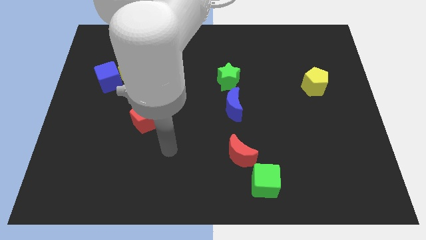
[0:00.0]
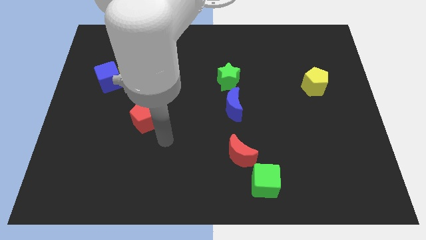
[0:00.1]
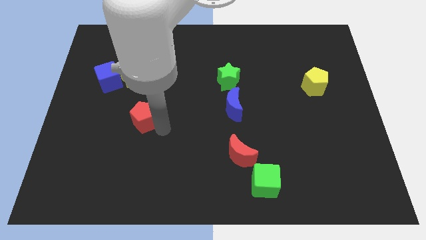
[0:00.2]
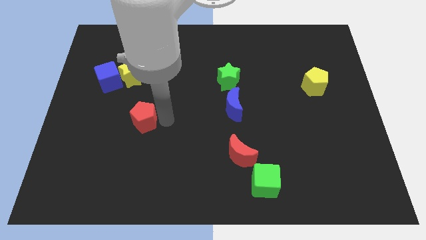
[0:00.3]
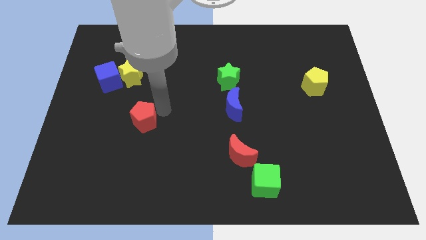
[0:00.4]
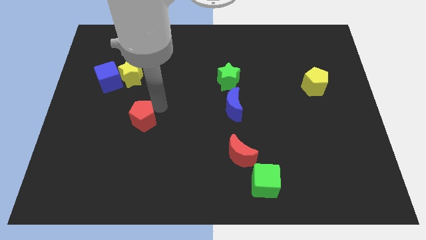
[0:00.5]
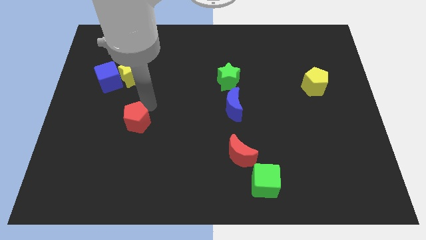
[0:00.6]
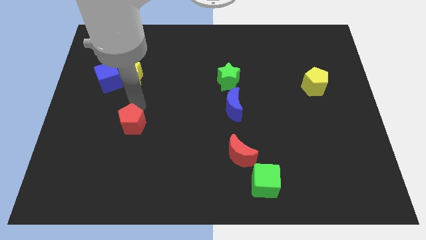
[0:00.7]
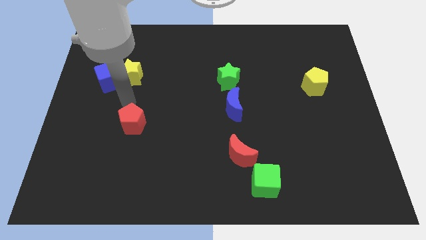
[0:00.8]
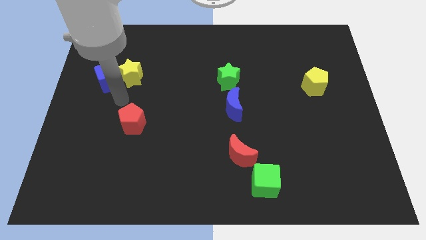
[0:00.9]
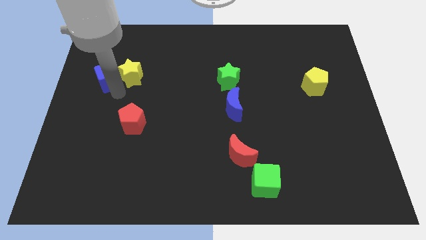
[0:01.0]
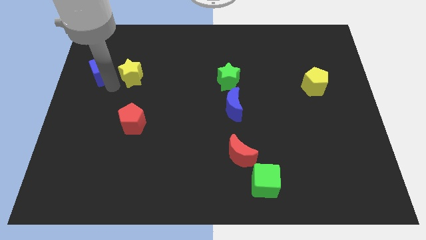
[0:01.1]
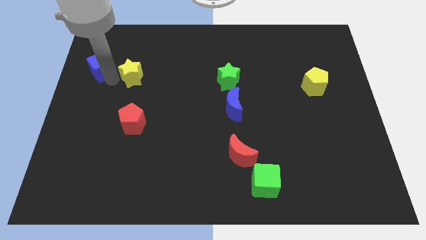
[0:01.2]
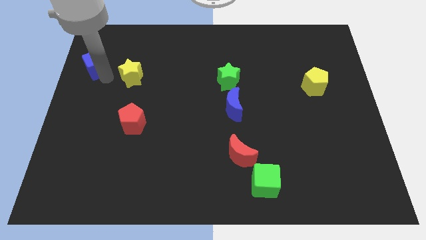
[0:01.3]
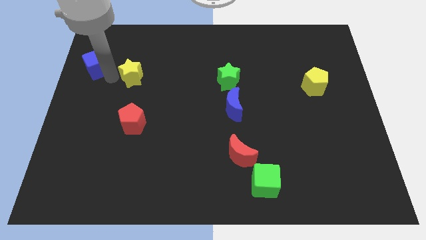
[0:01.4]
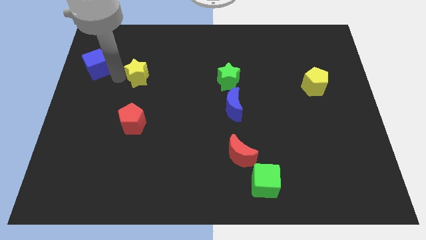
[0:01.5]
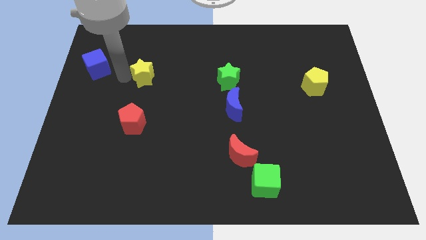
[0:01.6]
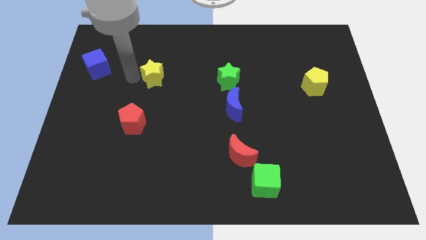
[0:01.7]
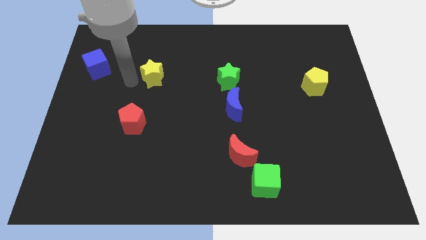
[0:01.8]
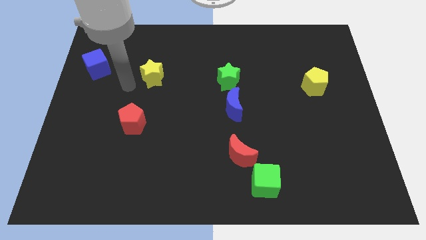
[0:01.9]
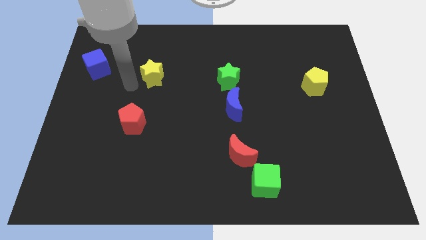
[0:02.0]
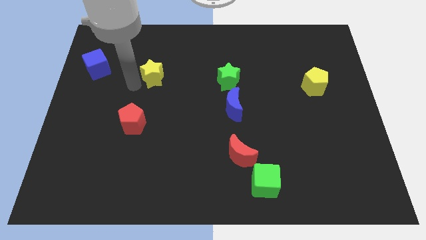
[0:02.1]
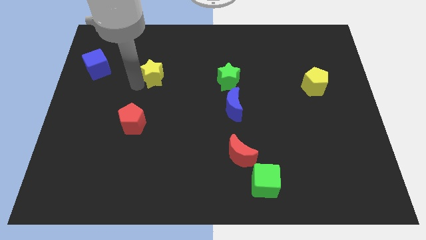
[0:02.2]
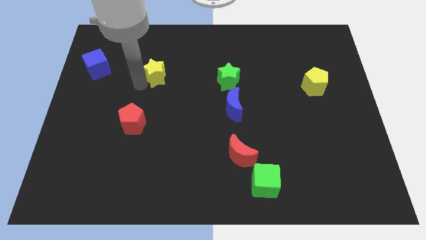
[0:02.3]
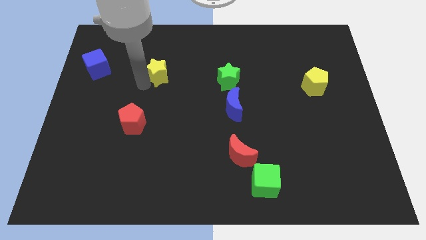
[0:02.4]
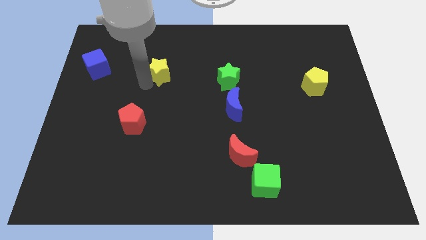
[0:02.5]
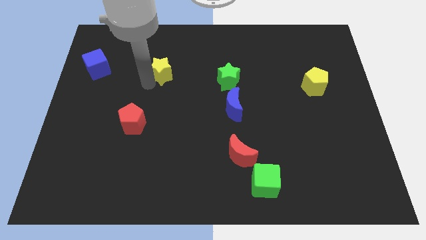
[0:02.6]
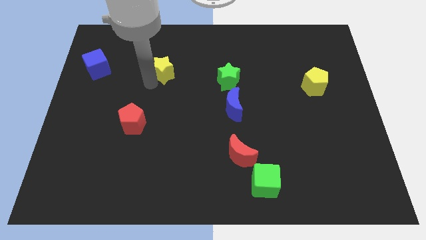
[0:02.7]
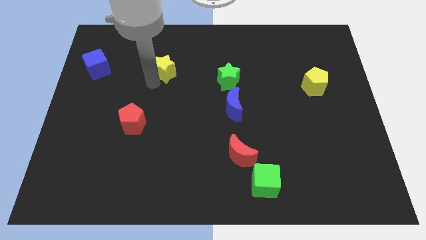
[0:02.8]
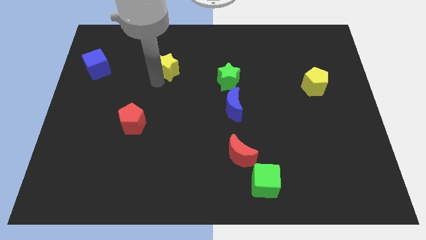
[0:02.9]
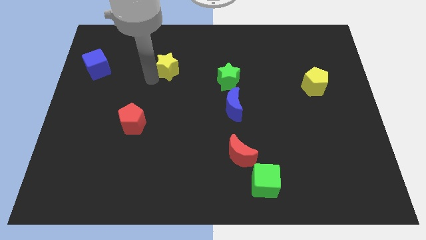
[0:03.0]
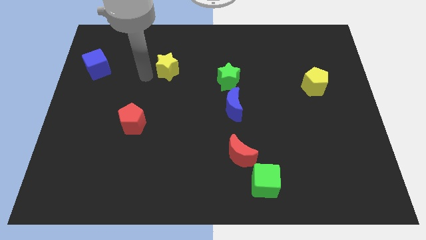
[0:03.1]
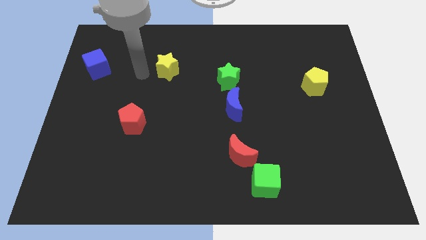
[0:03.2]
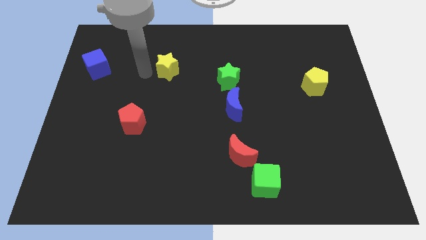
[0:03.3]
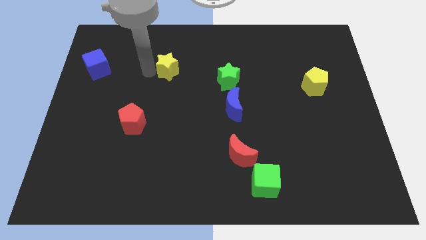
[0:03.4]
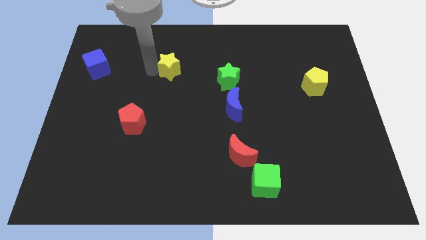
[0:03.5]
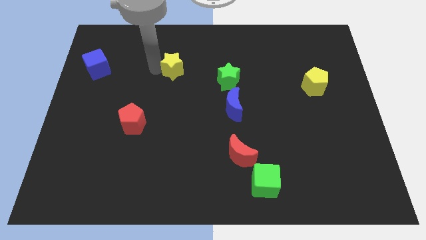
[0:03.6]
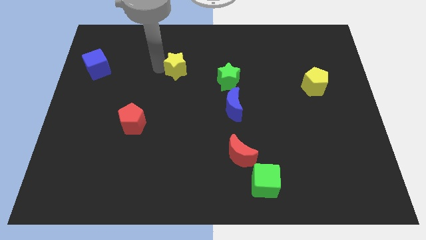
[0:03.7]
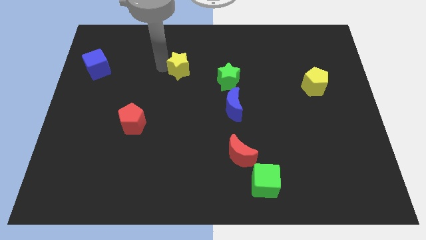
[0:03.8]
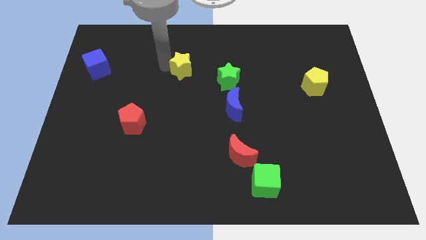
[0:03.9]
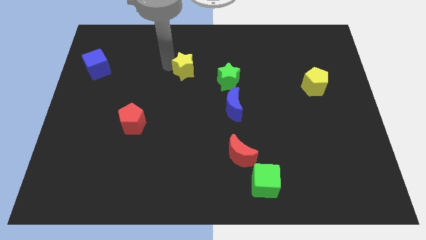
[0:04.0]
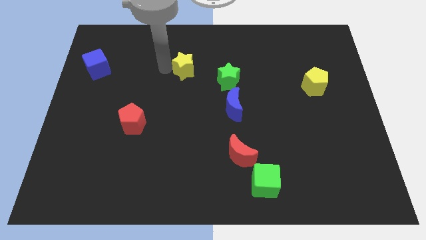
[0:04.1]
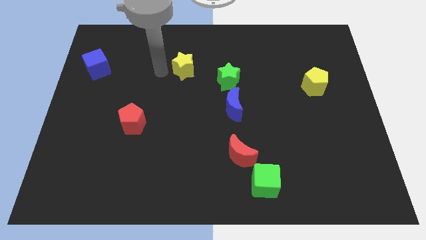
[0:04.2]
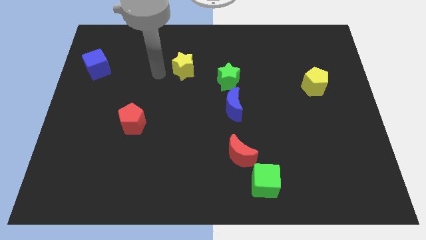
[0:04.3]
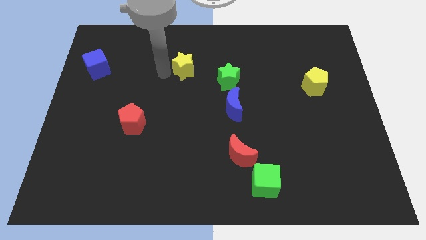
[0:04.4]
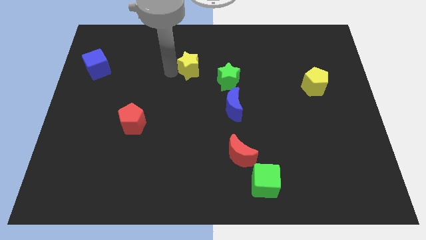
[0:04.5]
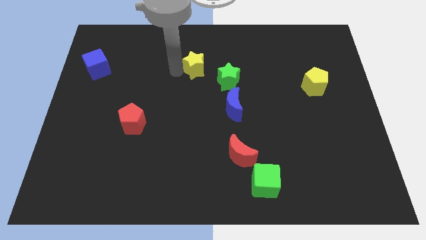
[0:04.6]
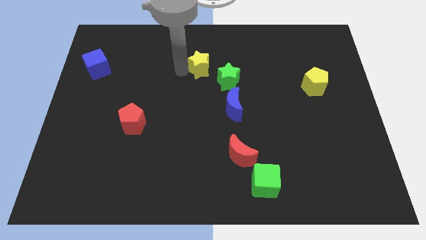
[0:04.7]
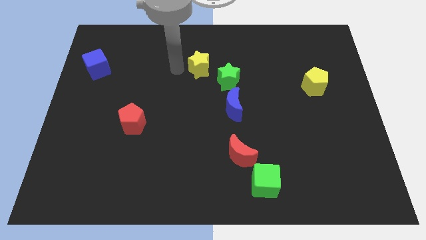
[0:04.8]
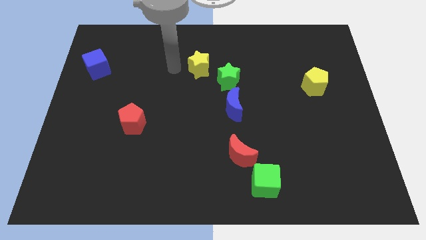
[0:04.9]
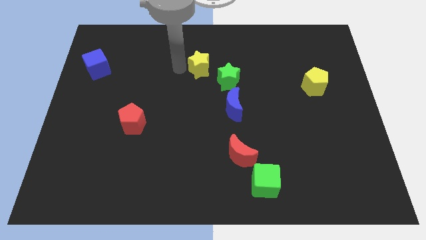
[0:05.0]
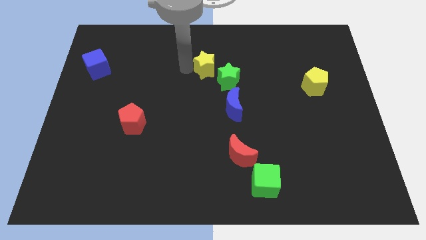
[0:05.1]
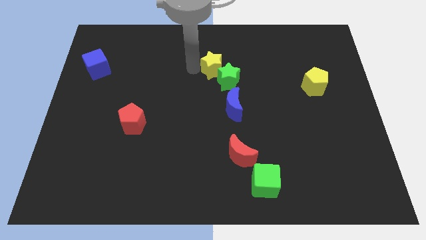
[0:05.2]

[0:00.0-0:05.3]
move the yellow star to the right

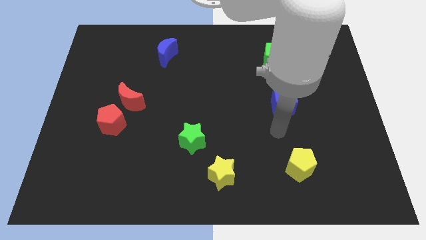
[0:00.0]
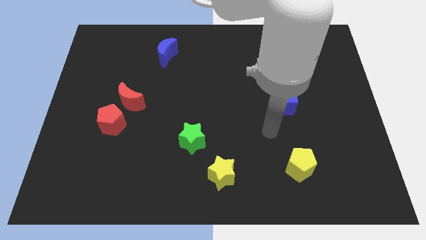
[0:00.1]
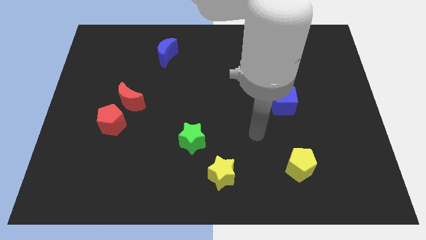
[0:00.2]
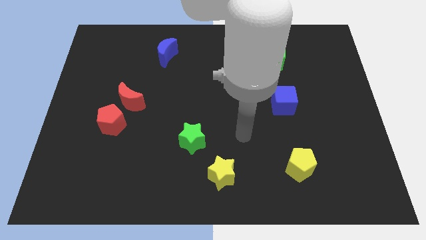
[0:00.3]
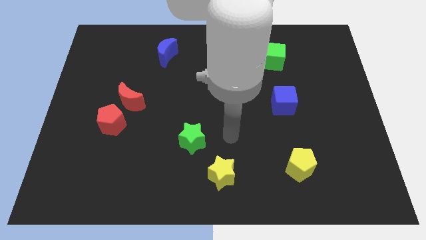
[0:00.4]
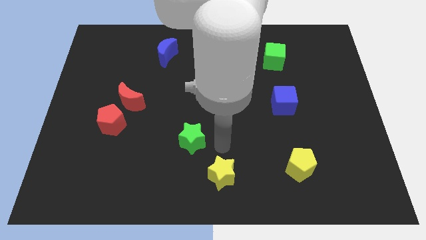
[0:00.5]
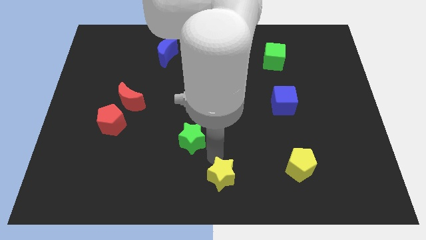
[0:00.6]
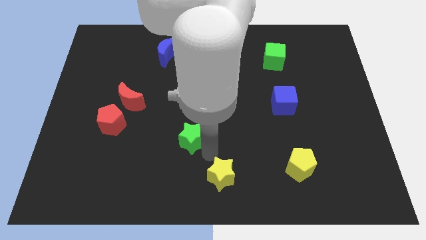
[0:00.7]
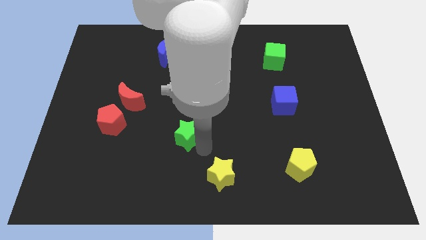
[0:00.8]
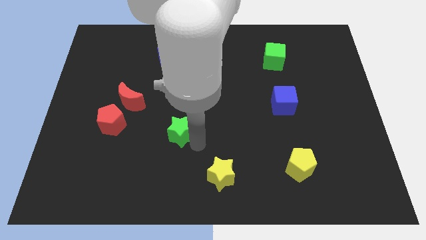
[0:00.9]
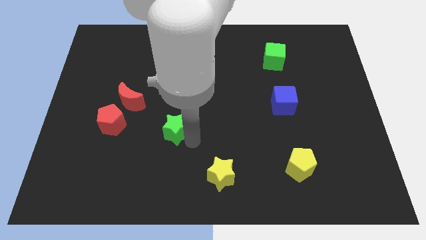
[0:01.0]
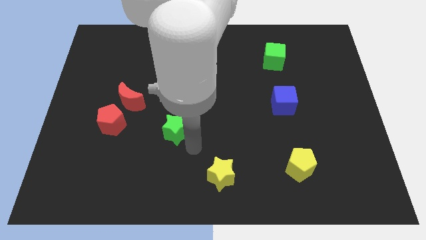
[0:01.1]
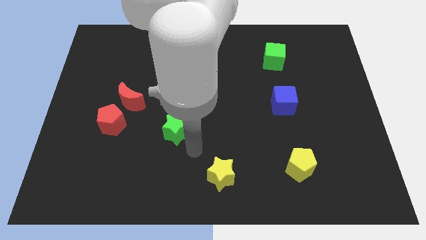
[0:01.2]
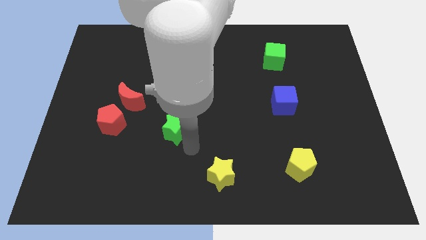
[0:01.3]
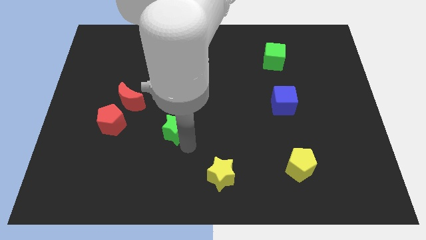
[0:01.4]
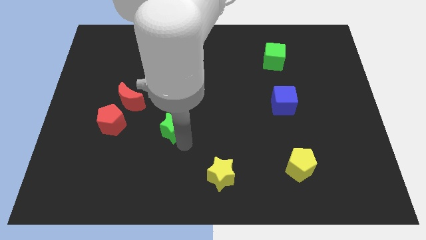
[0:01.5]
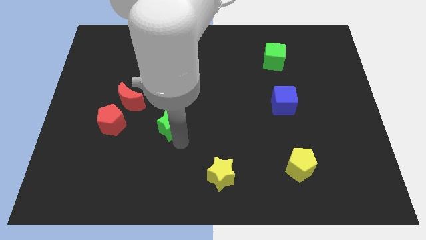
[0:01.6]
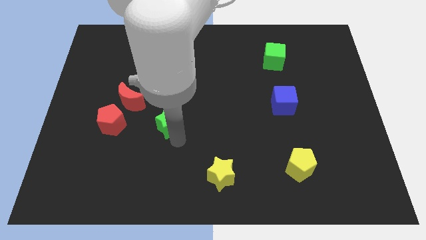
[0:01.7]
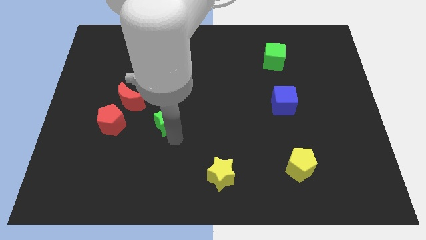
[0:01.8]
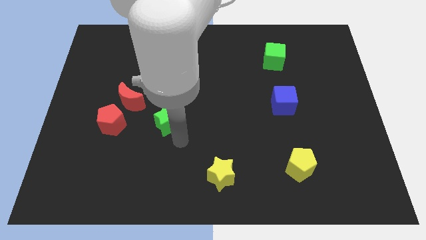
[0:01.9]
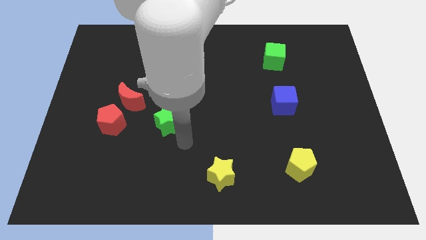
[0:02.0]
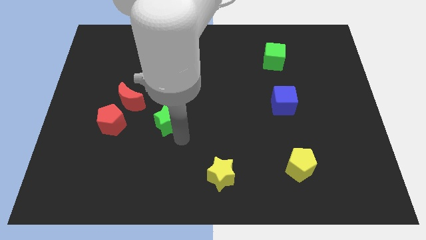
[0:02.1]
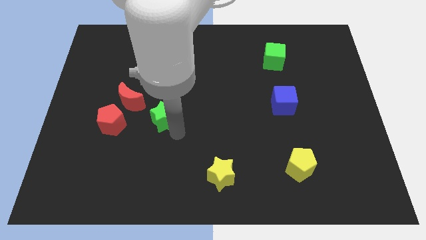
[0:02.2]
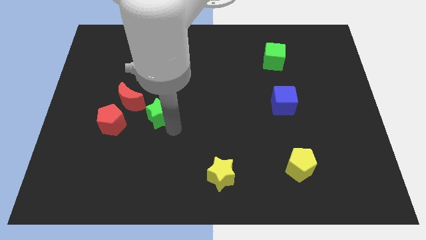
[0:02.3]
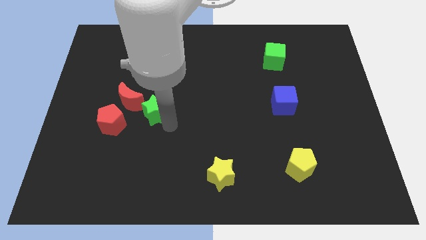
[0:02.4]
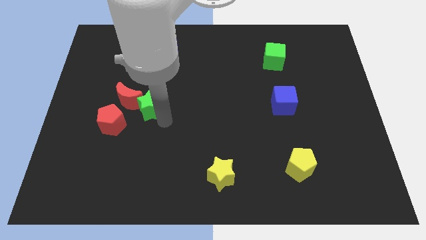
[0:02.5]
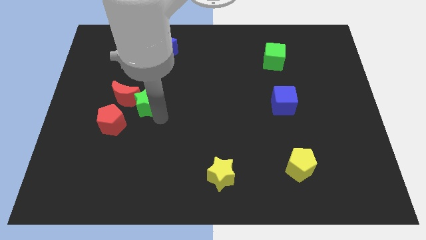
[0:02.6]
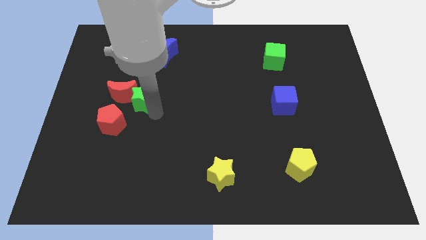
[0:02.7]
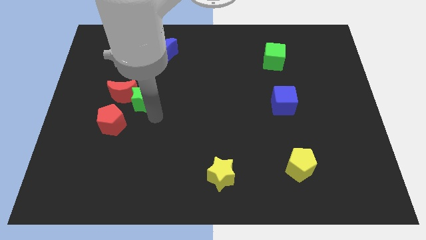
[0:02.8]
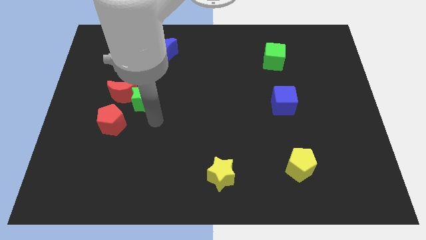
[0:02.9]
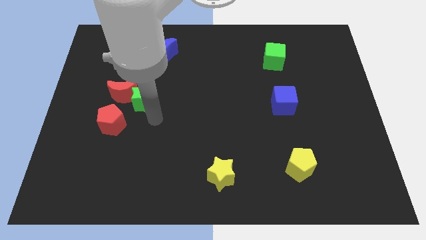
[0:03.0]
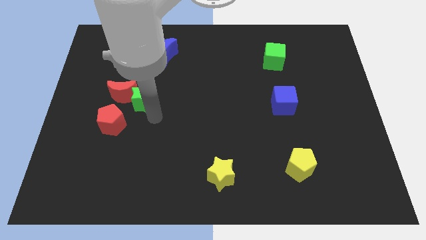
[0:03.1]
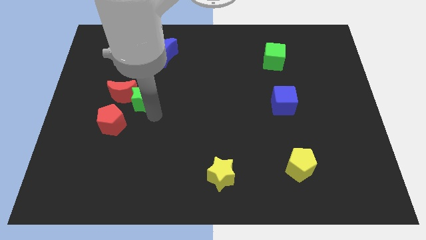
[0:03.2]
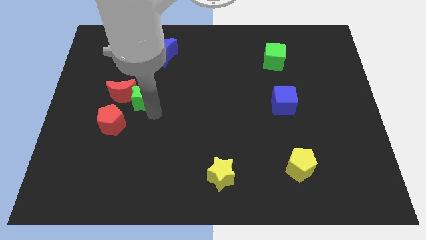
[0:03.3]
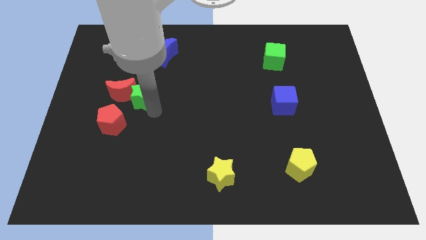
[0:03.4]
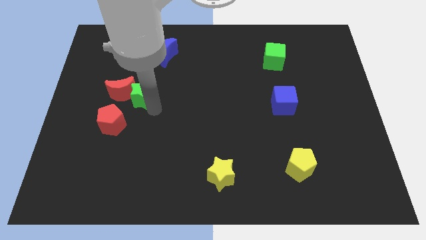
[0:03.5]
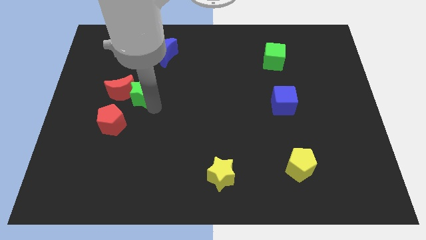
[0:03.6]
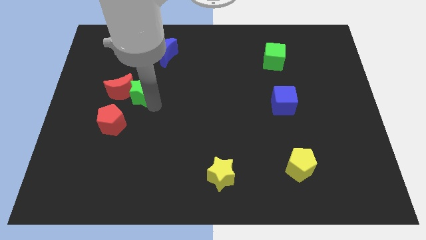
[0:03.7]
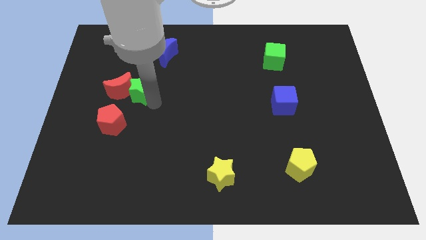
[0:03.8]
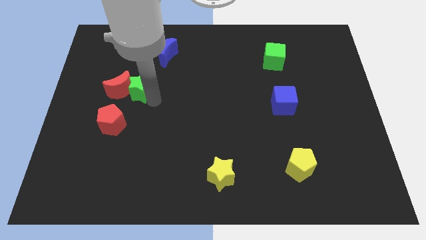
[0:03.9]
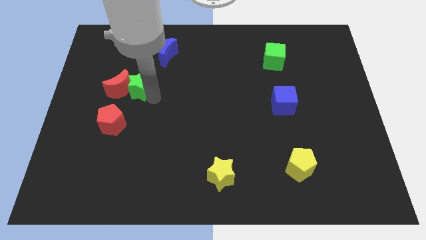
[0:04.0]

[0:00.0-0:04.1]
push the green star up and then left
